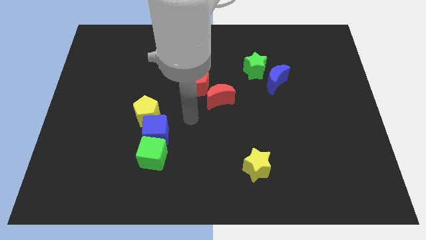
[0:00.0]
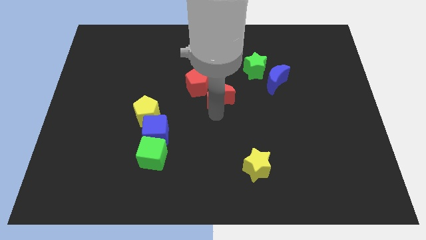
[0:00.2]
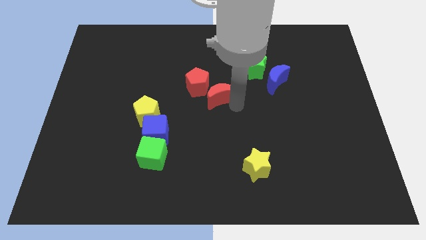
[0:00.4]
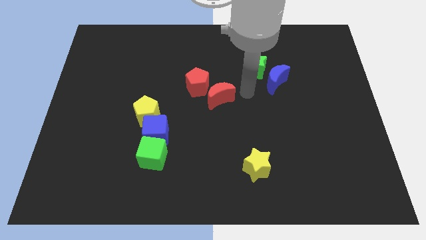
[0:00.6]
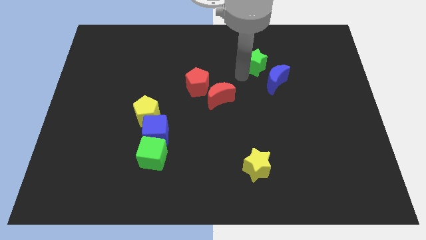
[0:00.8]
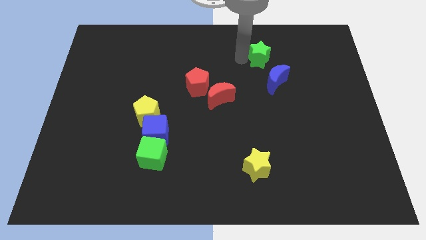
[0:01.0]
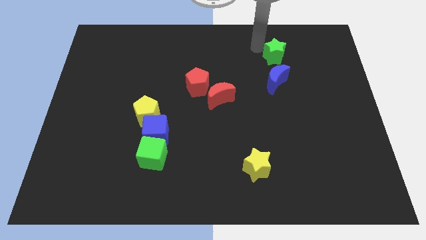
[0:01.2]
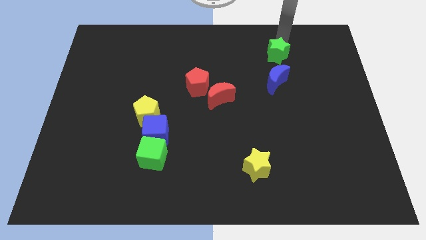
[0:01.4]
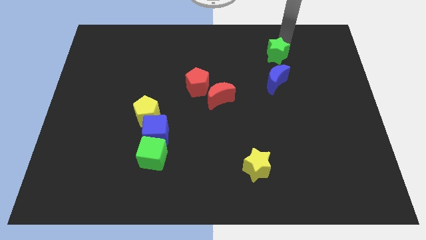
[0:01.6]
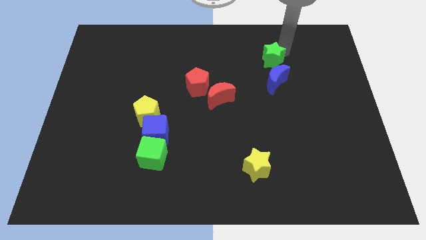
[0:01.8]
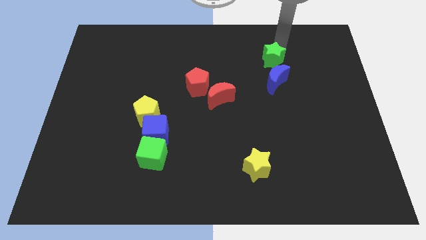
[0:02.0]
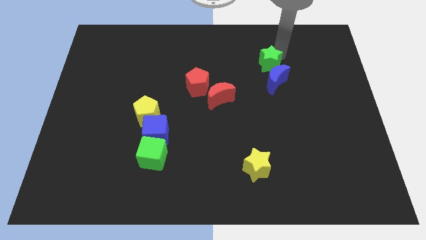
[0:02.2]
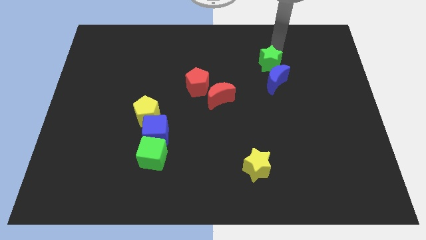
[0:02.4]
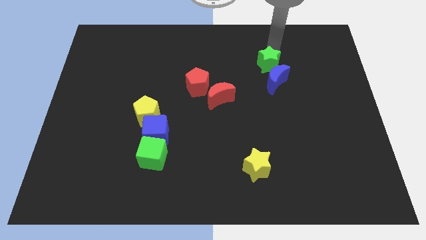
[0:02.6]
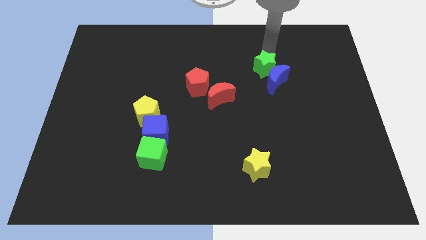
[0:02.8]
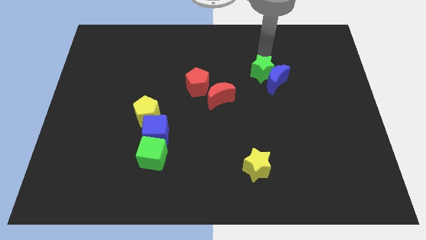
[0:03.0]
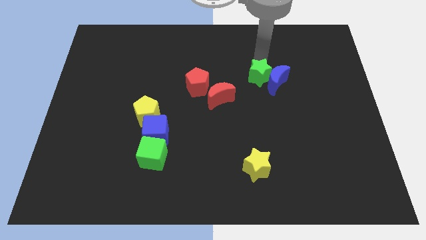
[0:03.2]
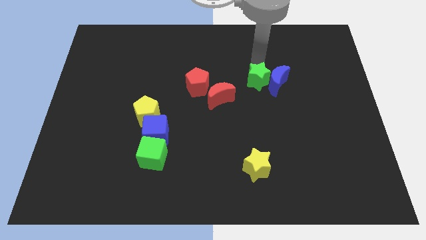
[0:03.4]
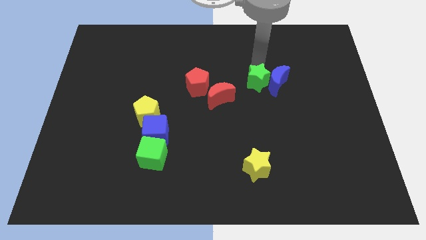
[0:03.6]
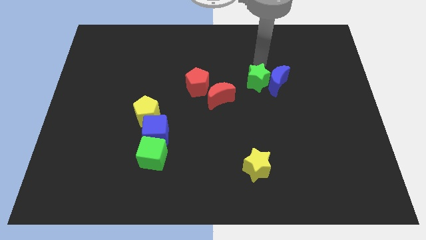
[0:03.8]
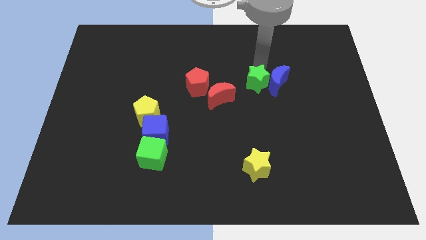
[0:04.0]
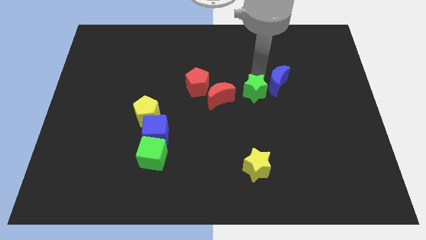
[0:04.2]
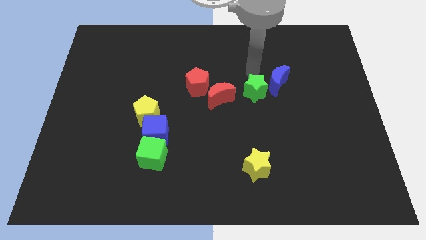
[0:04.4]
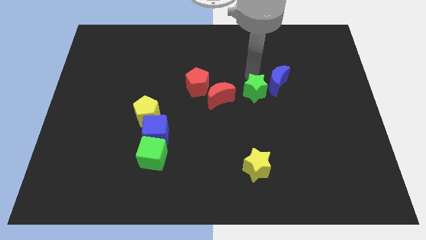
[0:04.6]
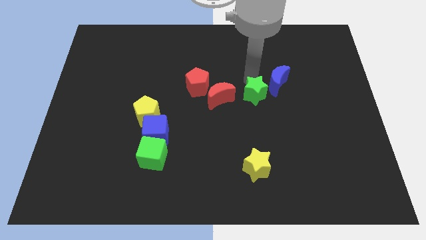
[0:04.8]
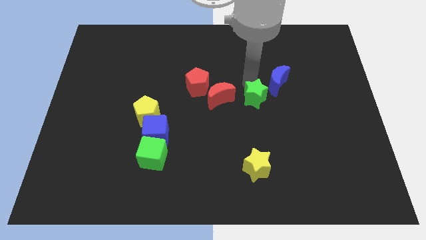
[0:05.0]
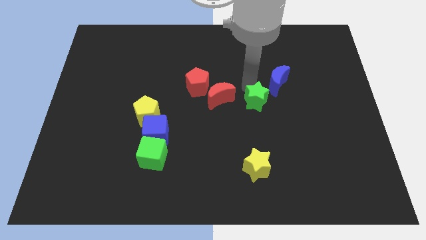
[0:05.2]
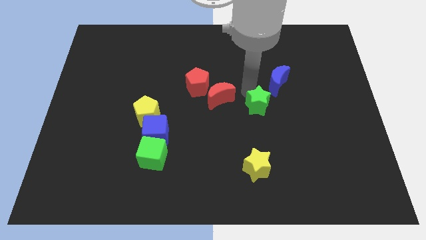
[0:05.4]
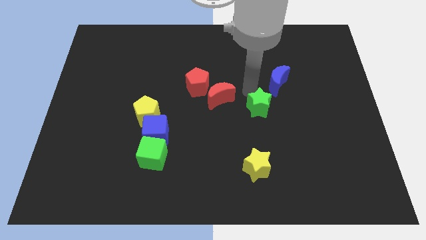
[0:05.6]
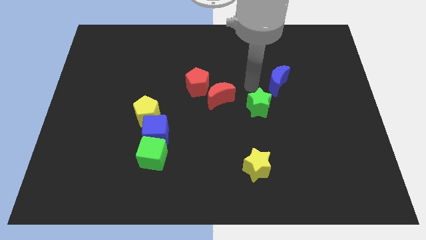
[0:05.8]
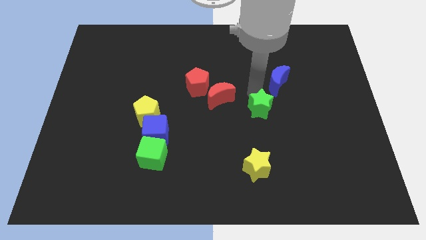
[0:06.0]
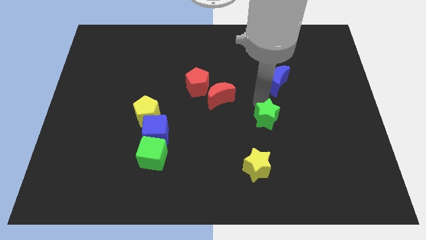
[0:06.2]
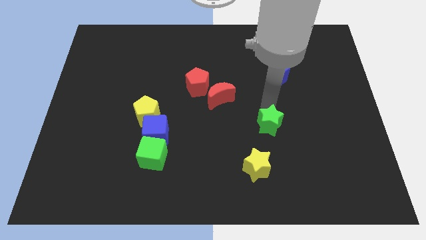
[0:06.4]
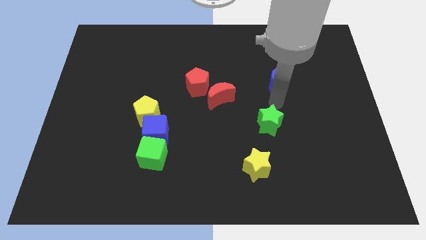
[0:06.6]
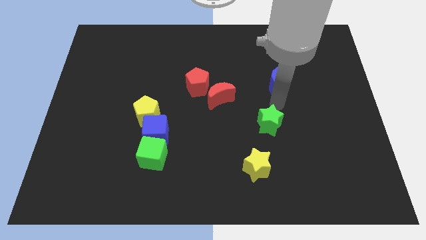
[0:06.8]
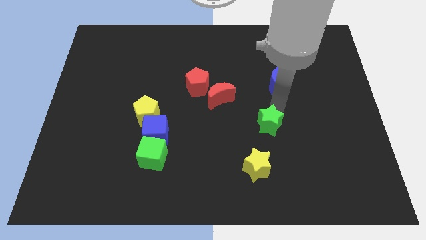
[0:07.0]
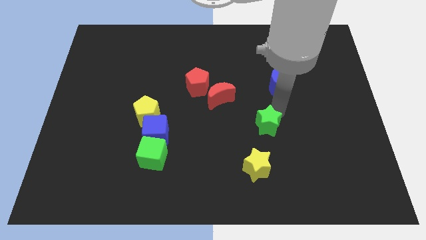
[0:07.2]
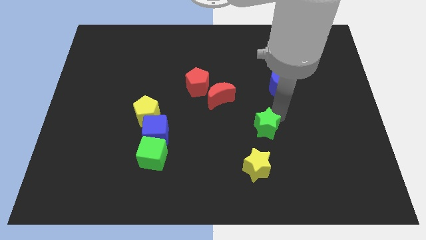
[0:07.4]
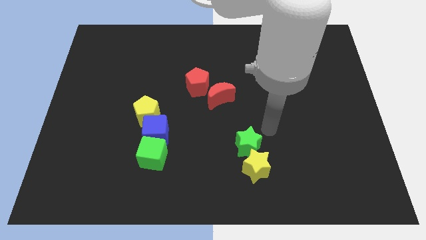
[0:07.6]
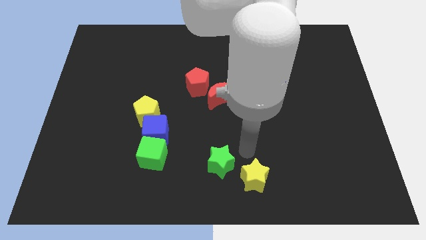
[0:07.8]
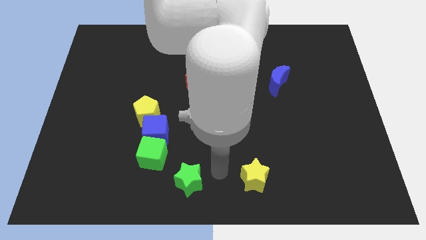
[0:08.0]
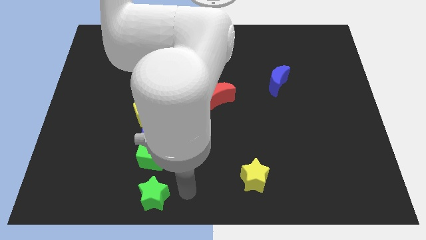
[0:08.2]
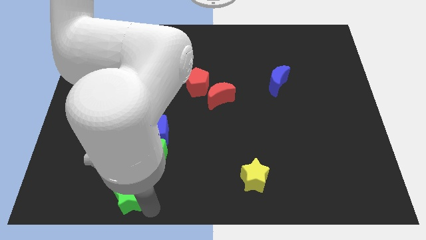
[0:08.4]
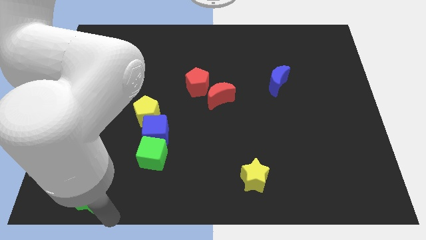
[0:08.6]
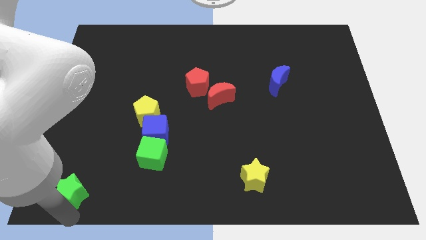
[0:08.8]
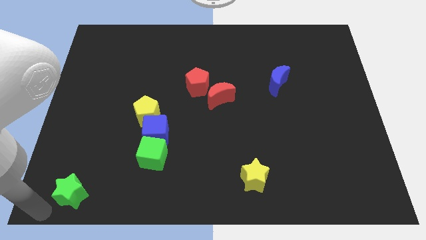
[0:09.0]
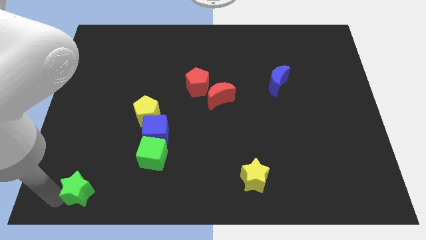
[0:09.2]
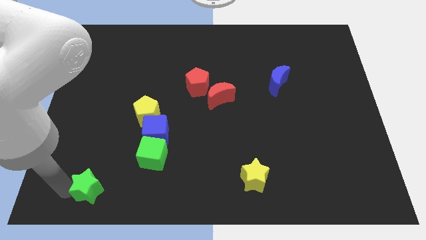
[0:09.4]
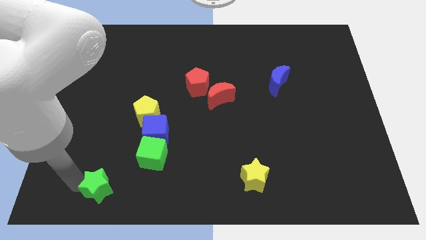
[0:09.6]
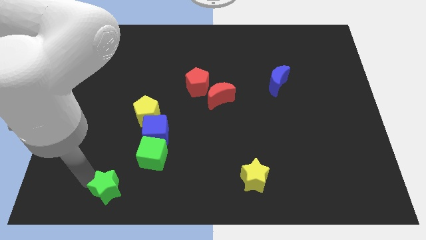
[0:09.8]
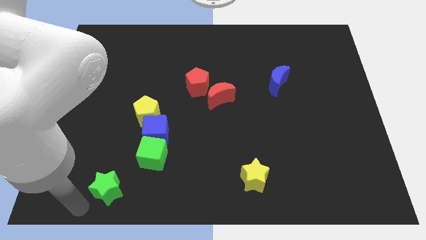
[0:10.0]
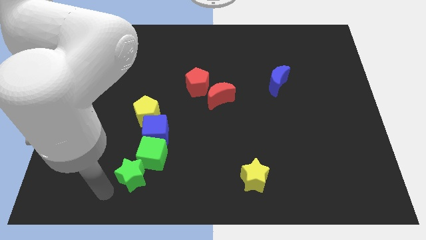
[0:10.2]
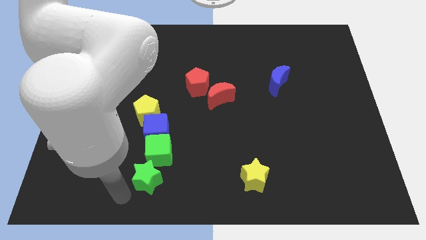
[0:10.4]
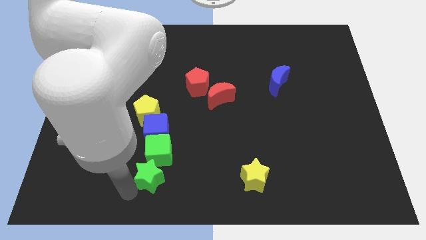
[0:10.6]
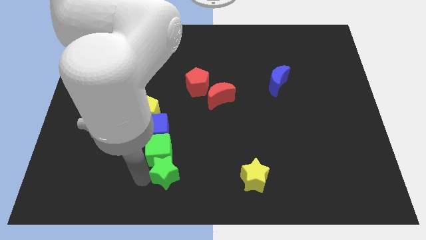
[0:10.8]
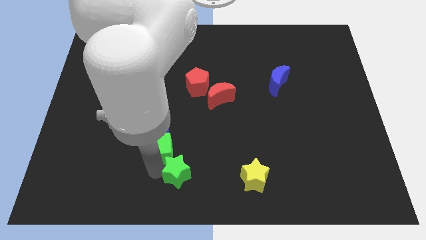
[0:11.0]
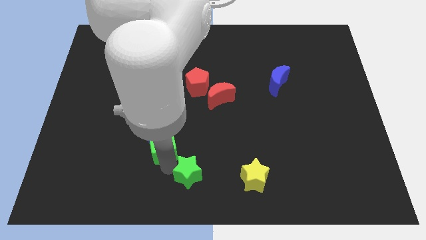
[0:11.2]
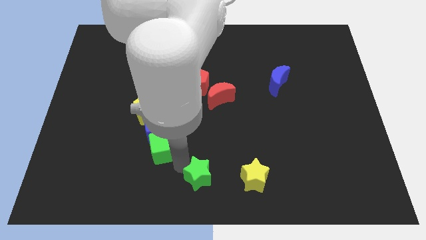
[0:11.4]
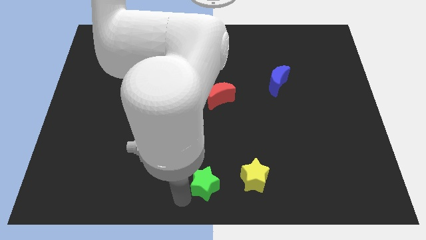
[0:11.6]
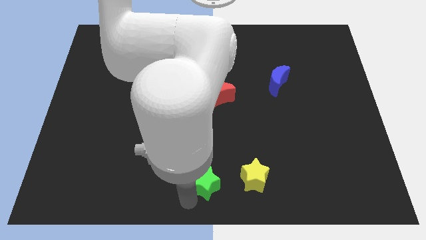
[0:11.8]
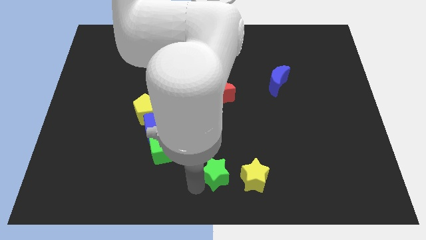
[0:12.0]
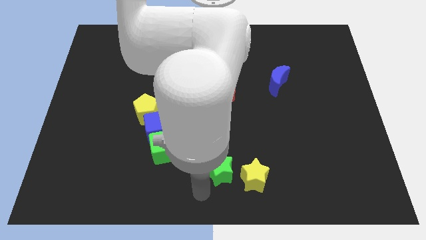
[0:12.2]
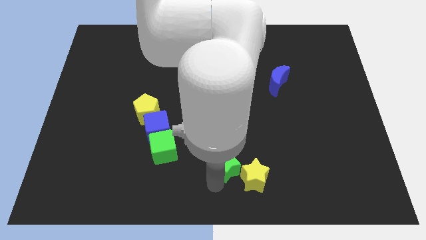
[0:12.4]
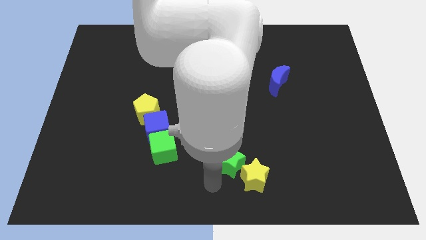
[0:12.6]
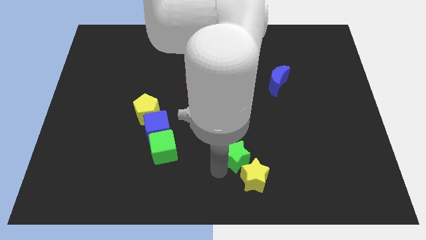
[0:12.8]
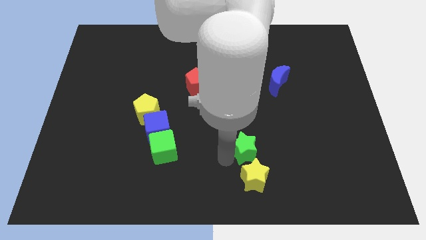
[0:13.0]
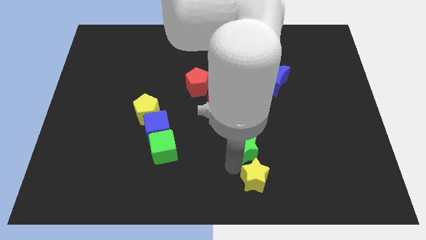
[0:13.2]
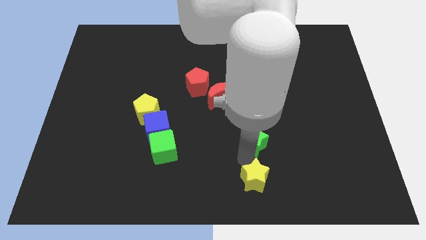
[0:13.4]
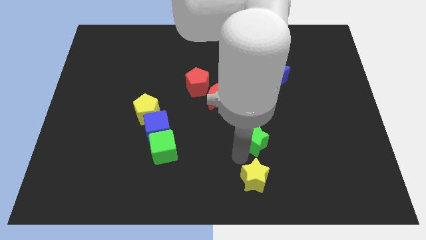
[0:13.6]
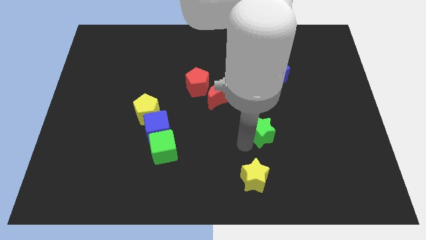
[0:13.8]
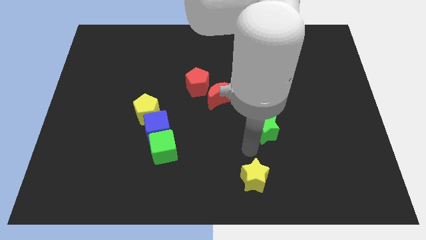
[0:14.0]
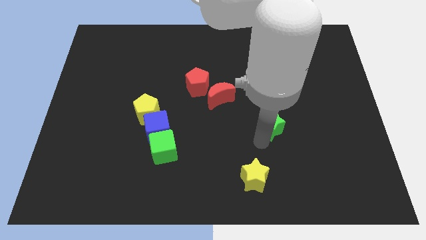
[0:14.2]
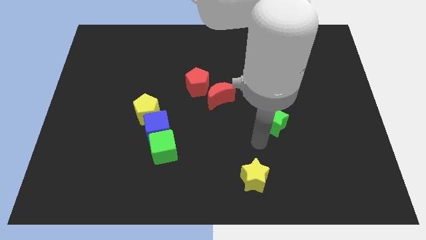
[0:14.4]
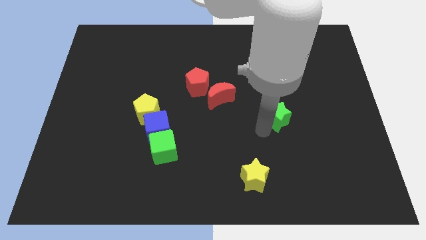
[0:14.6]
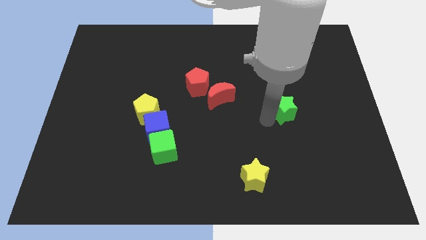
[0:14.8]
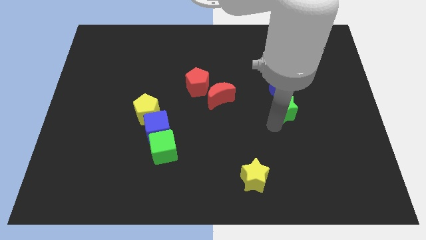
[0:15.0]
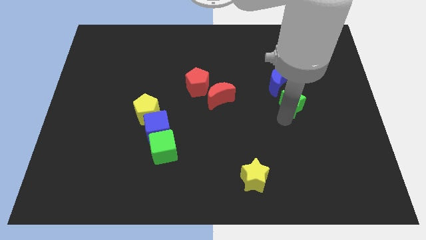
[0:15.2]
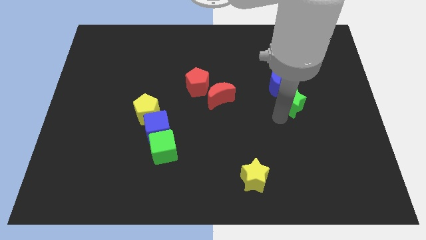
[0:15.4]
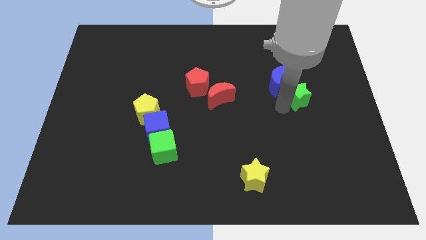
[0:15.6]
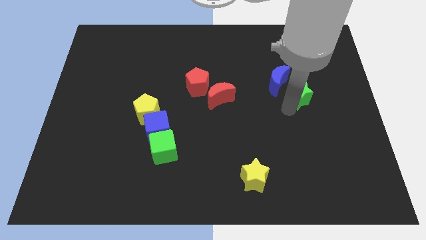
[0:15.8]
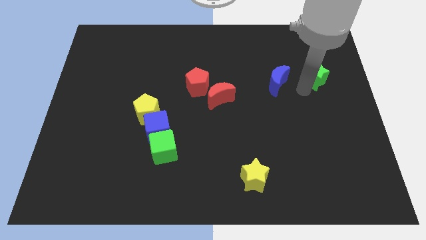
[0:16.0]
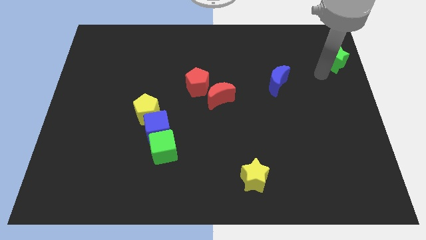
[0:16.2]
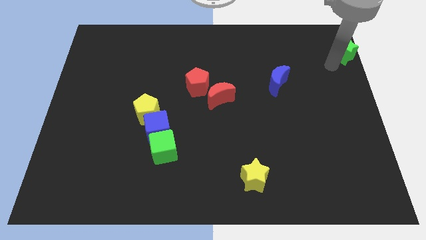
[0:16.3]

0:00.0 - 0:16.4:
slide the green star to the top right
